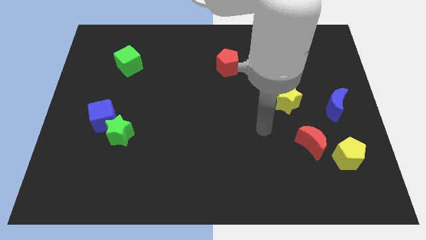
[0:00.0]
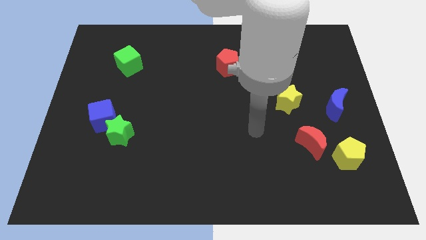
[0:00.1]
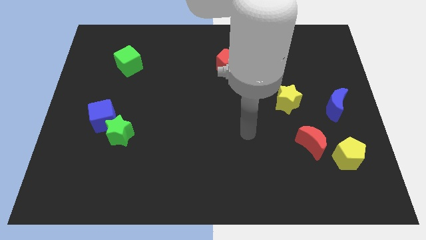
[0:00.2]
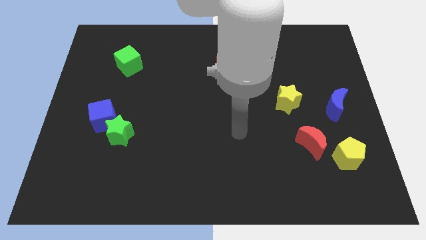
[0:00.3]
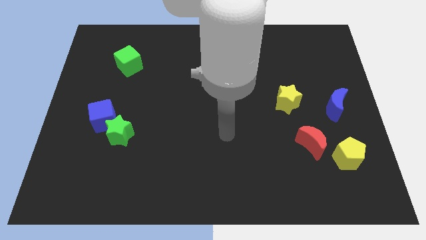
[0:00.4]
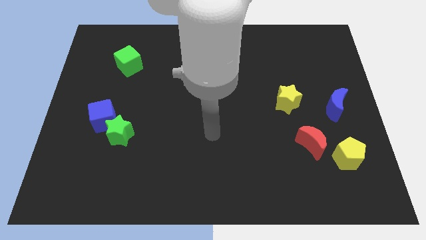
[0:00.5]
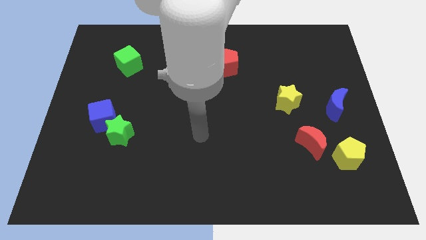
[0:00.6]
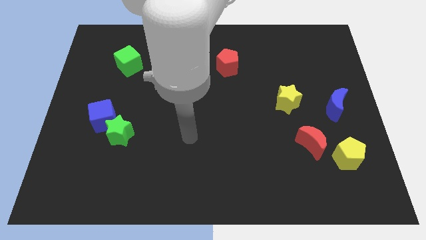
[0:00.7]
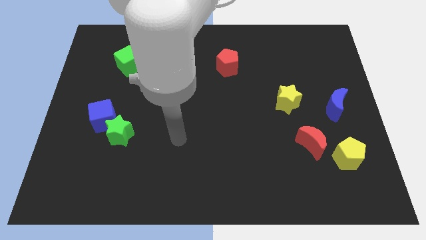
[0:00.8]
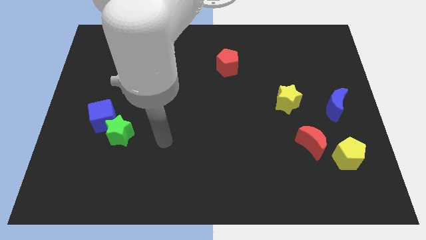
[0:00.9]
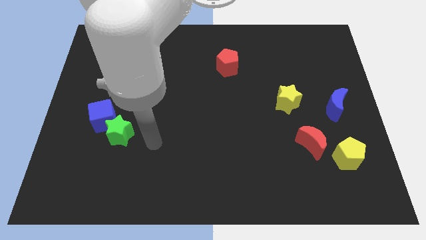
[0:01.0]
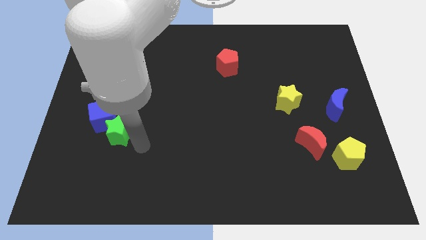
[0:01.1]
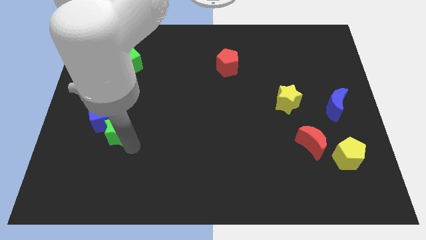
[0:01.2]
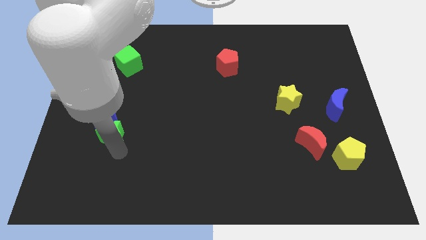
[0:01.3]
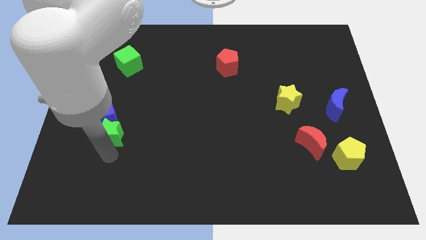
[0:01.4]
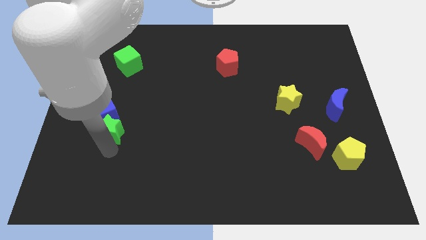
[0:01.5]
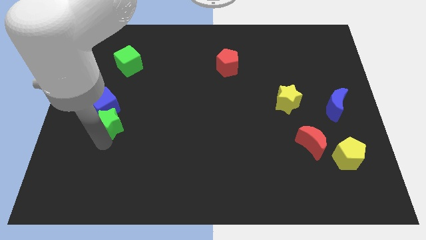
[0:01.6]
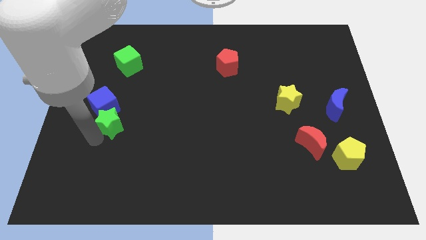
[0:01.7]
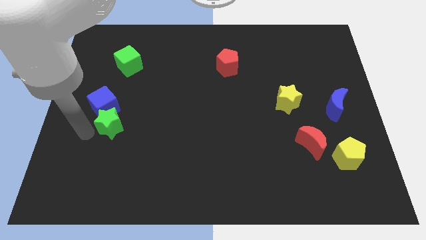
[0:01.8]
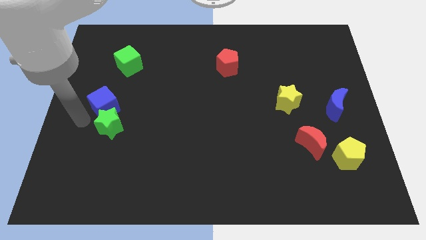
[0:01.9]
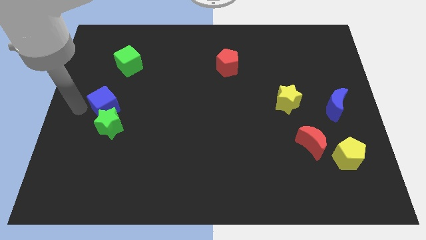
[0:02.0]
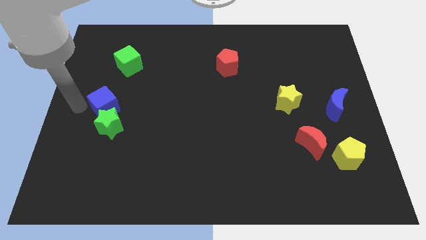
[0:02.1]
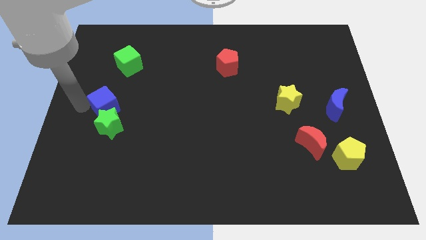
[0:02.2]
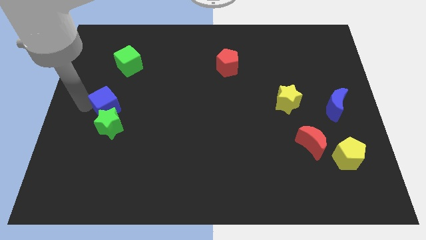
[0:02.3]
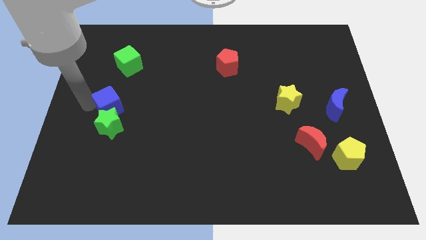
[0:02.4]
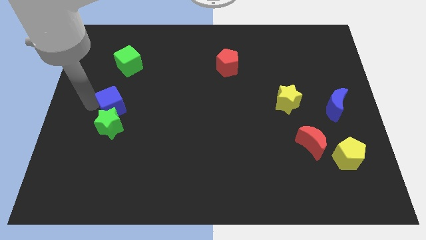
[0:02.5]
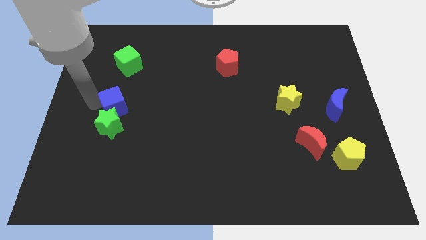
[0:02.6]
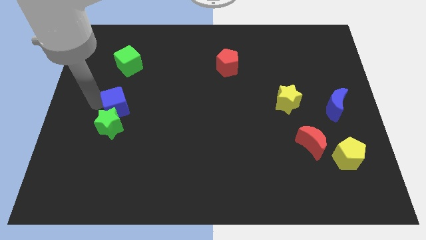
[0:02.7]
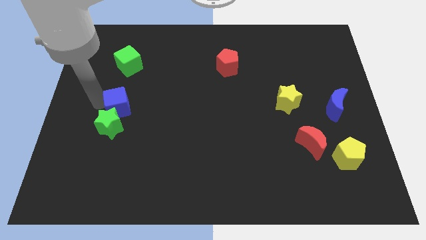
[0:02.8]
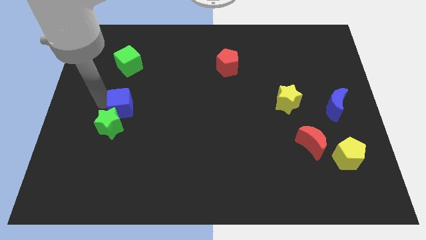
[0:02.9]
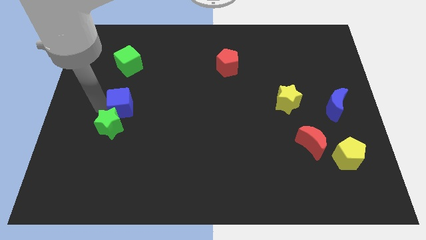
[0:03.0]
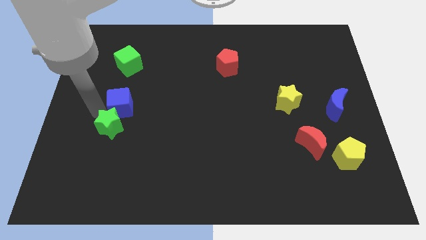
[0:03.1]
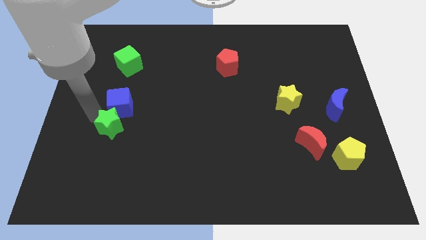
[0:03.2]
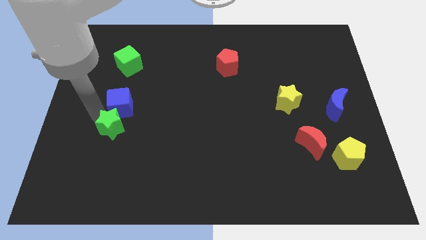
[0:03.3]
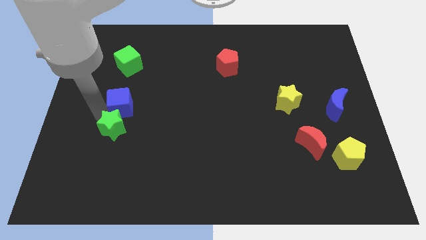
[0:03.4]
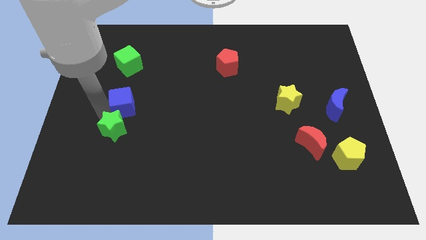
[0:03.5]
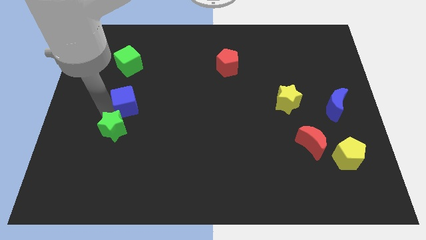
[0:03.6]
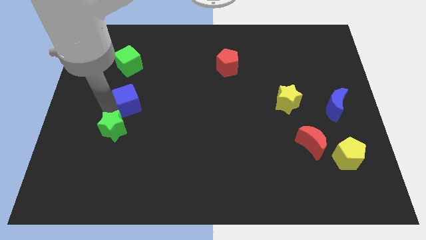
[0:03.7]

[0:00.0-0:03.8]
slide the blue cube up and to the right diagonally a bit

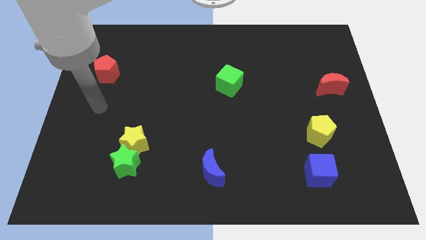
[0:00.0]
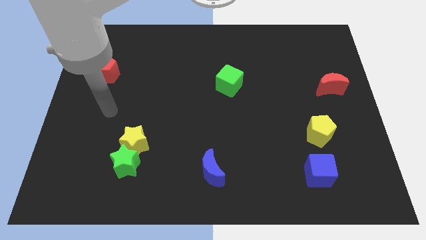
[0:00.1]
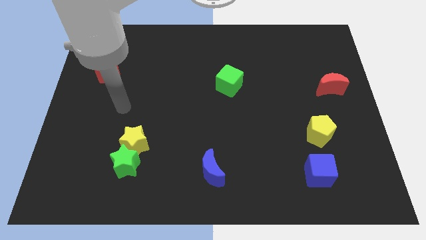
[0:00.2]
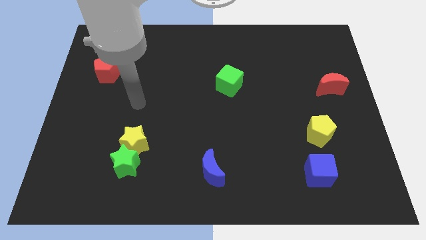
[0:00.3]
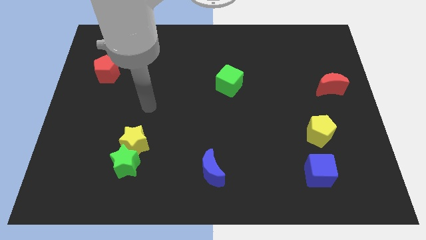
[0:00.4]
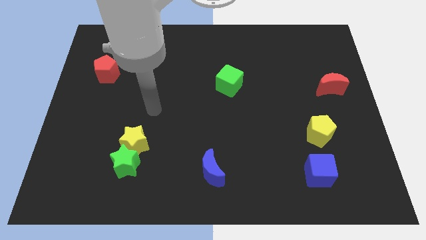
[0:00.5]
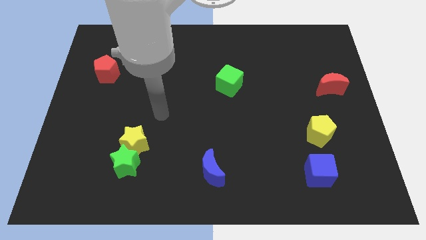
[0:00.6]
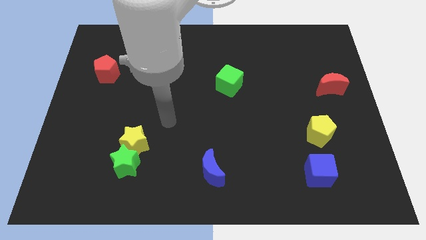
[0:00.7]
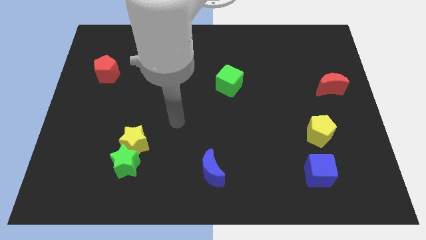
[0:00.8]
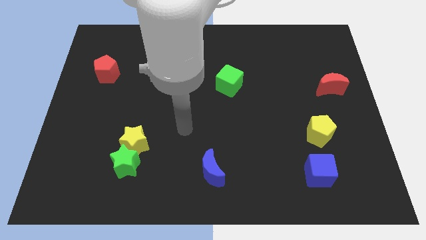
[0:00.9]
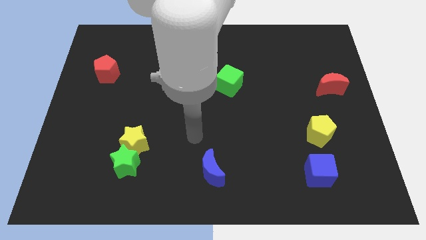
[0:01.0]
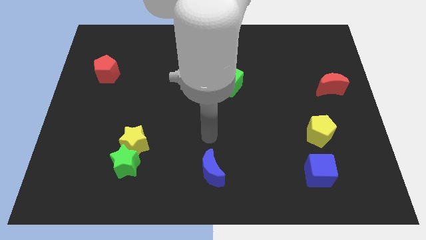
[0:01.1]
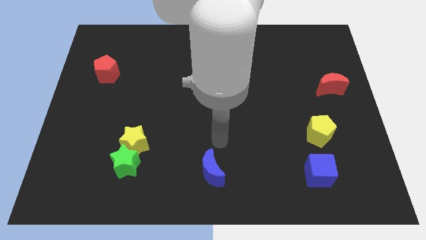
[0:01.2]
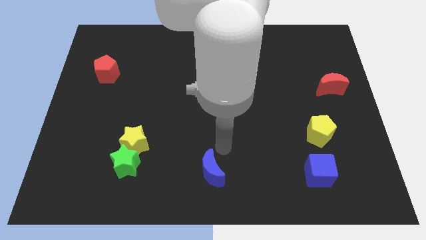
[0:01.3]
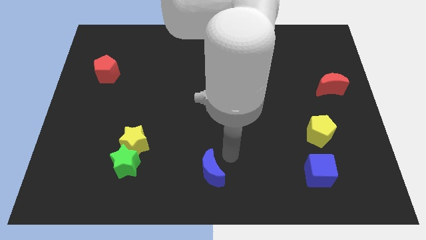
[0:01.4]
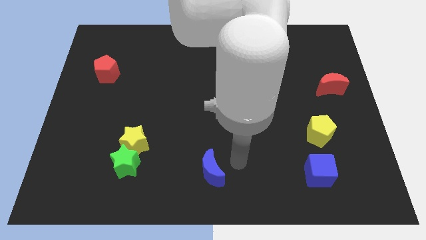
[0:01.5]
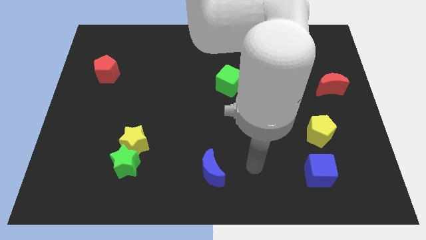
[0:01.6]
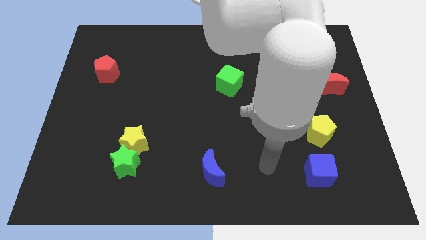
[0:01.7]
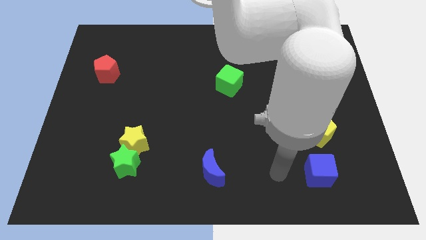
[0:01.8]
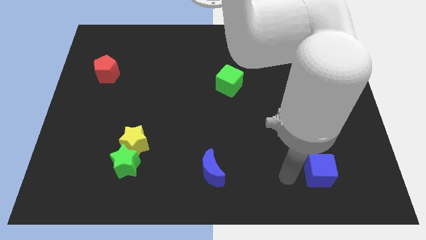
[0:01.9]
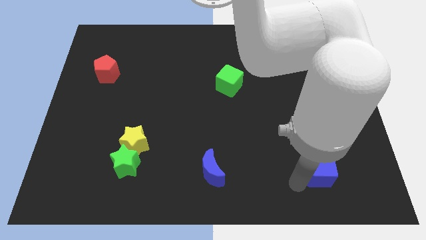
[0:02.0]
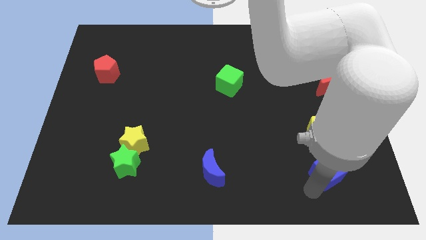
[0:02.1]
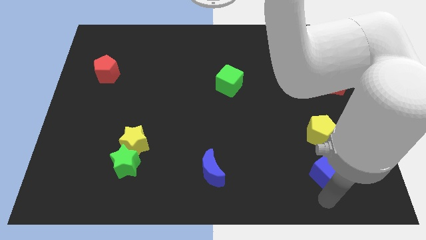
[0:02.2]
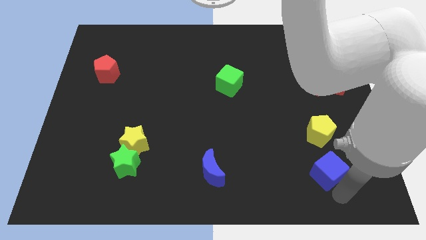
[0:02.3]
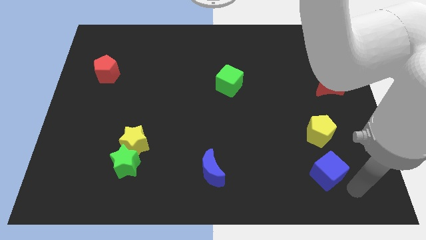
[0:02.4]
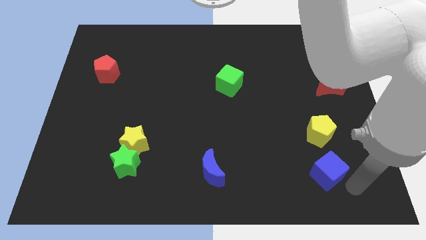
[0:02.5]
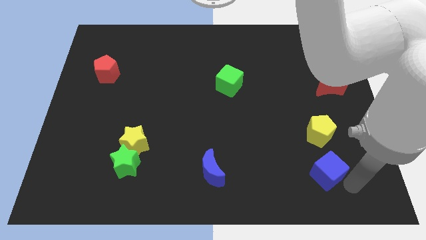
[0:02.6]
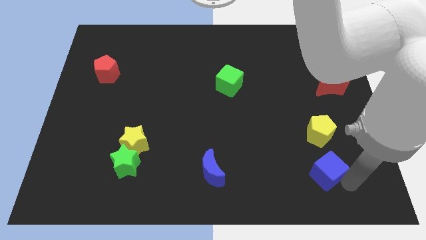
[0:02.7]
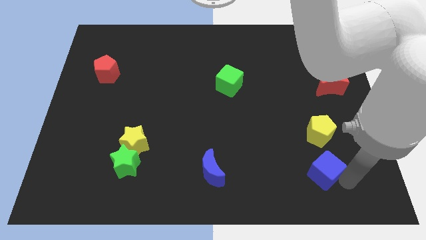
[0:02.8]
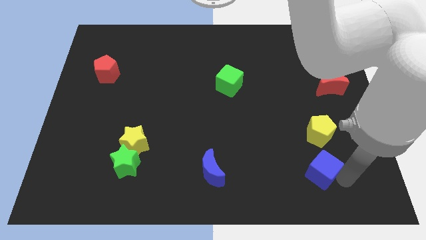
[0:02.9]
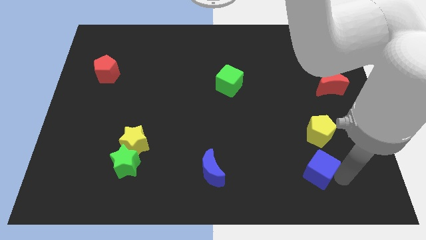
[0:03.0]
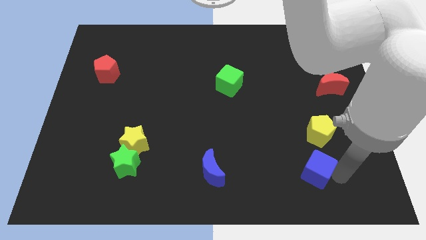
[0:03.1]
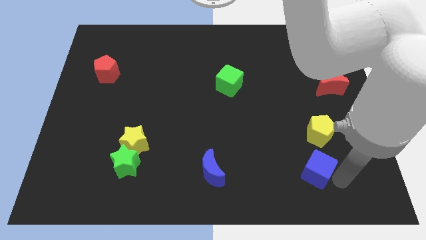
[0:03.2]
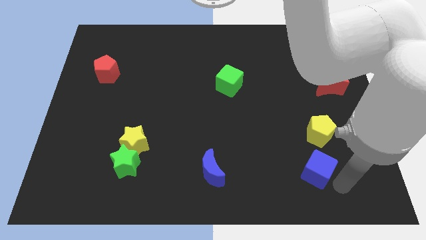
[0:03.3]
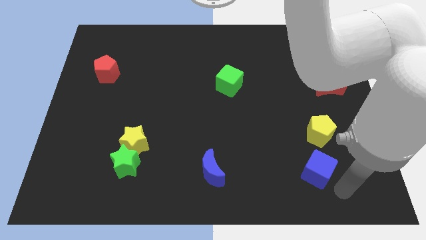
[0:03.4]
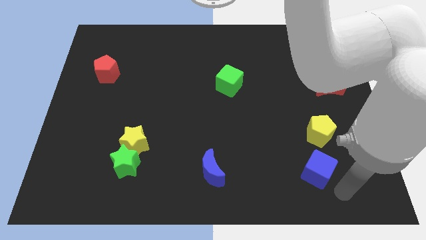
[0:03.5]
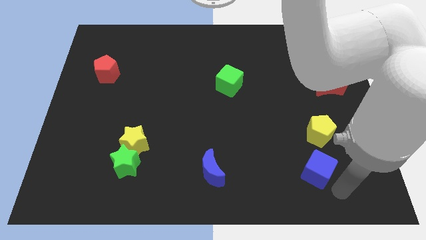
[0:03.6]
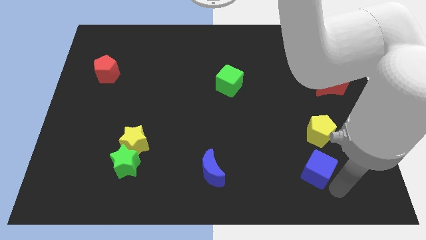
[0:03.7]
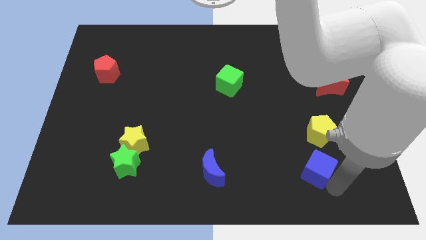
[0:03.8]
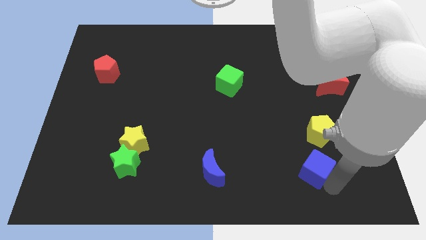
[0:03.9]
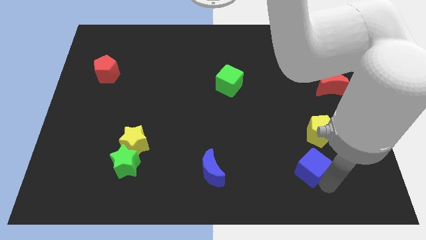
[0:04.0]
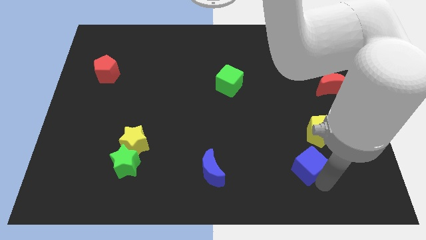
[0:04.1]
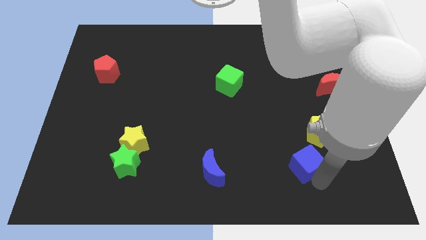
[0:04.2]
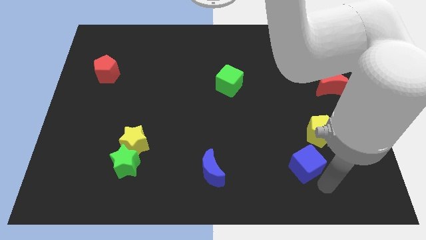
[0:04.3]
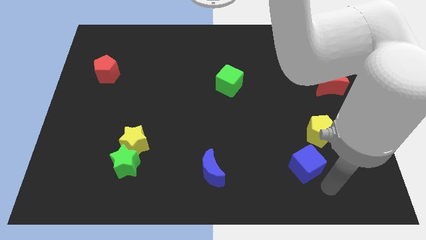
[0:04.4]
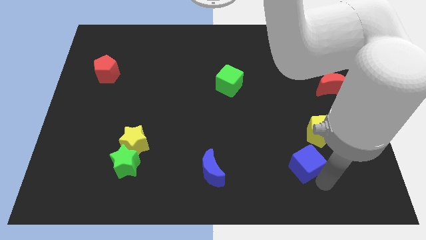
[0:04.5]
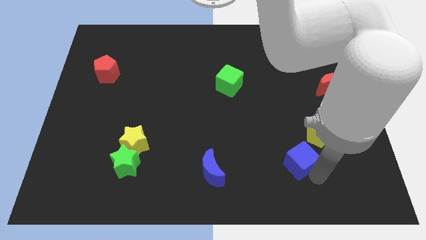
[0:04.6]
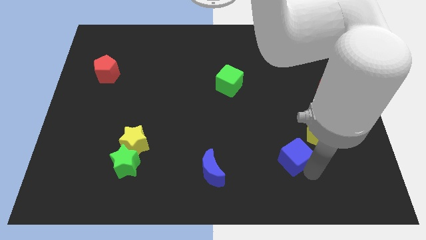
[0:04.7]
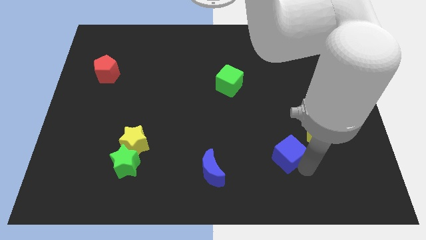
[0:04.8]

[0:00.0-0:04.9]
slightly slide the blue cube up and to the left
